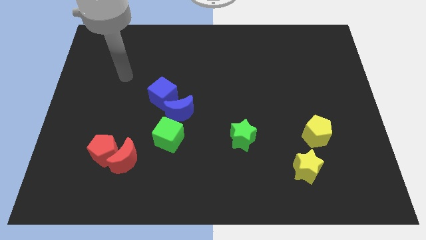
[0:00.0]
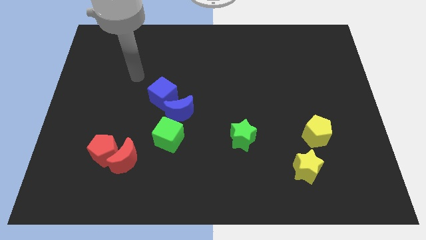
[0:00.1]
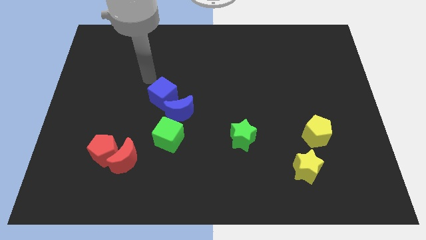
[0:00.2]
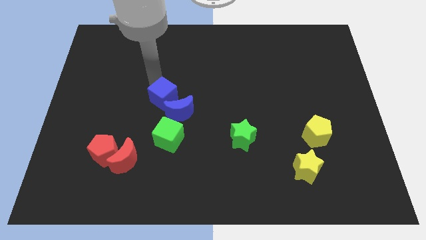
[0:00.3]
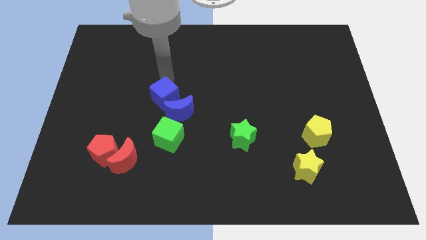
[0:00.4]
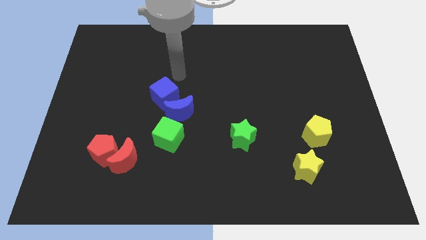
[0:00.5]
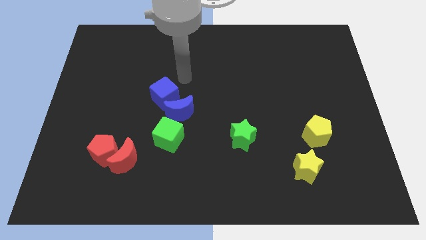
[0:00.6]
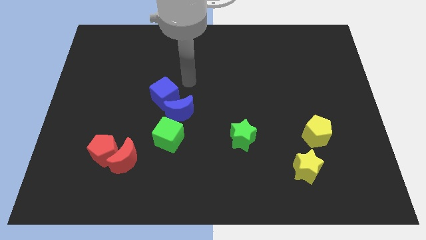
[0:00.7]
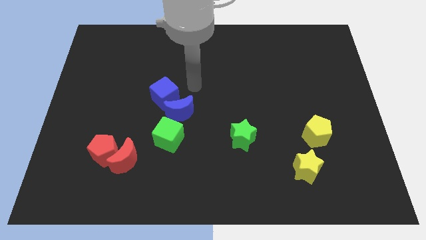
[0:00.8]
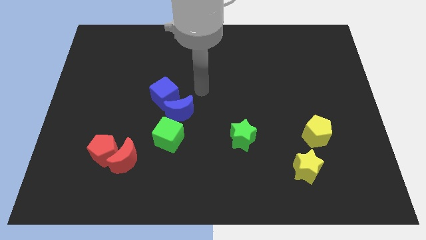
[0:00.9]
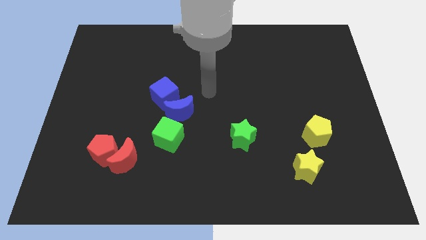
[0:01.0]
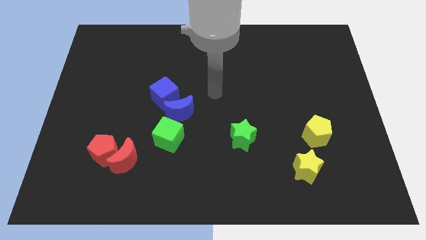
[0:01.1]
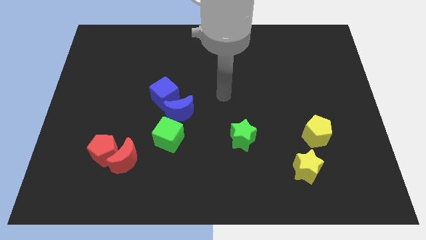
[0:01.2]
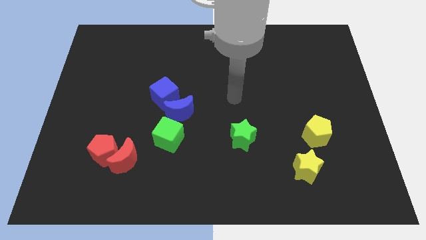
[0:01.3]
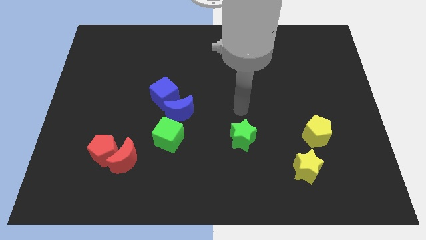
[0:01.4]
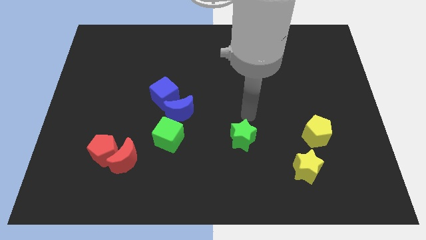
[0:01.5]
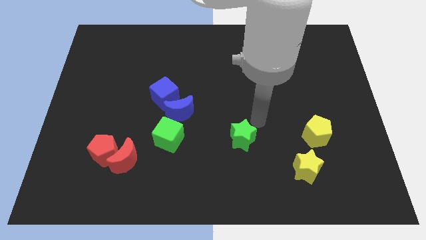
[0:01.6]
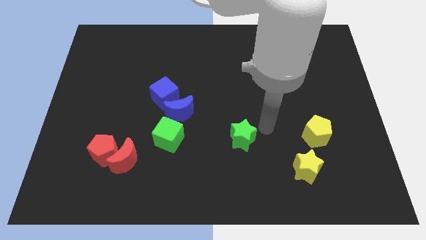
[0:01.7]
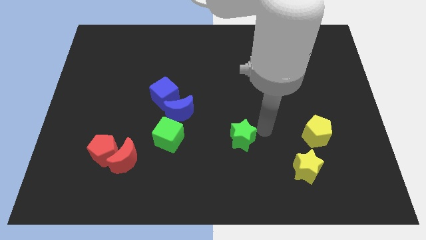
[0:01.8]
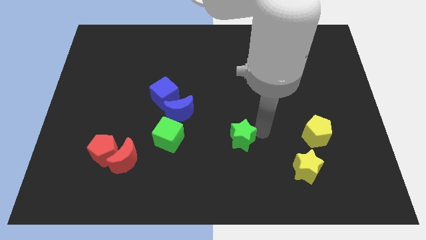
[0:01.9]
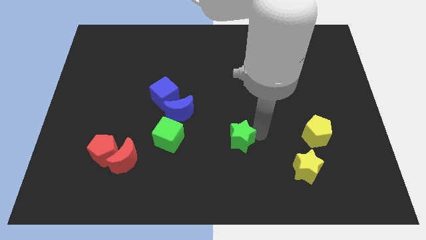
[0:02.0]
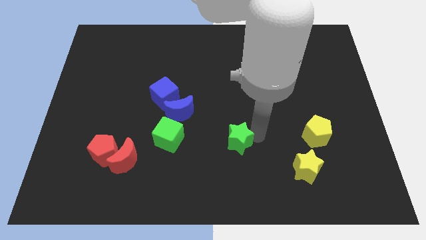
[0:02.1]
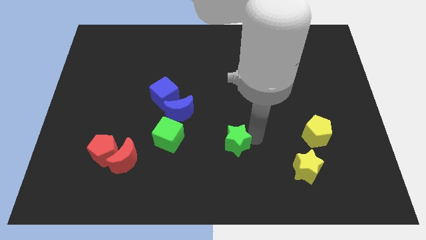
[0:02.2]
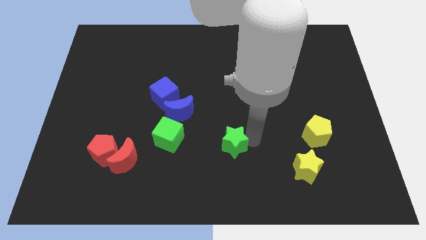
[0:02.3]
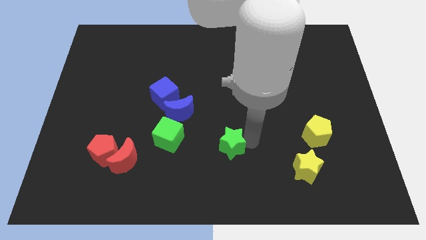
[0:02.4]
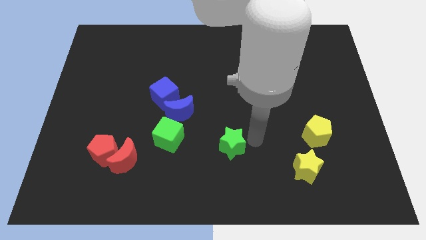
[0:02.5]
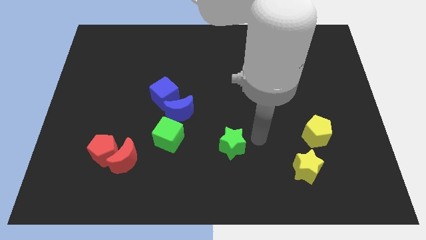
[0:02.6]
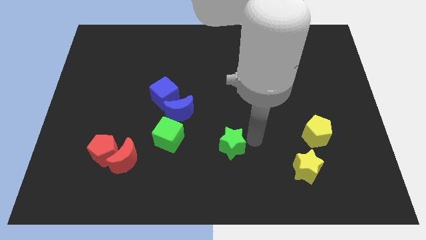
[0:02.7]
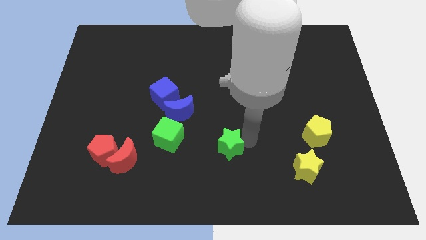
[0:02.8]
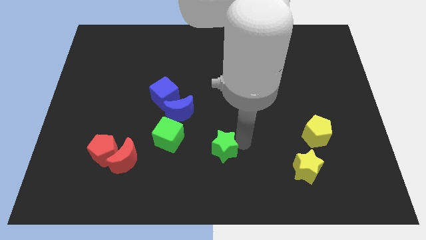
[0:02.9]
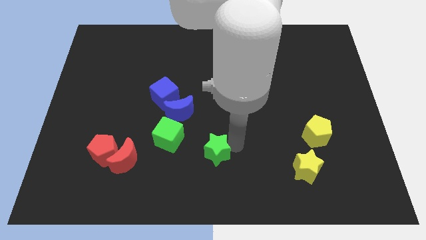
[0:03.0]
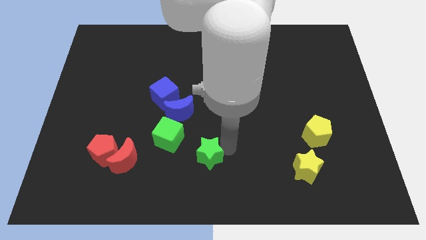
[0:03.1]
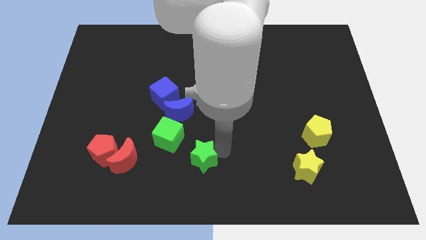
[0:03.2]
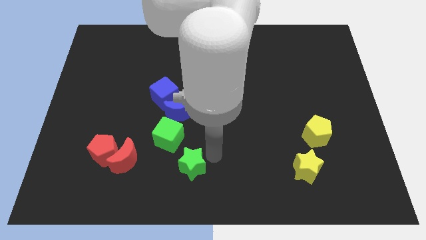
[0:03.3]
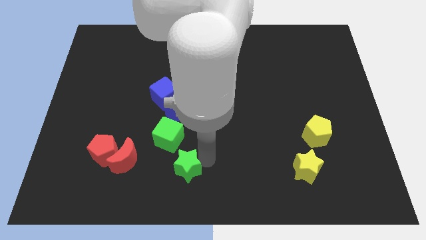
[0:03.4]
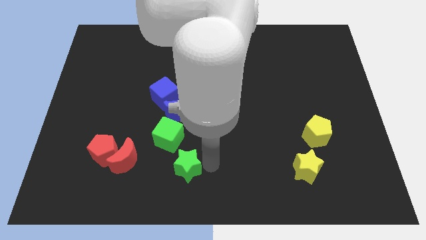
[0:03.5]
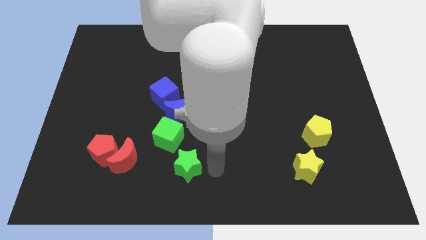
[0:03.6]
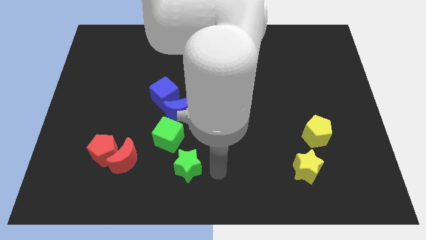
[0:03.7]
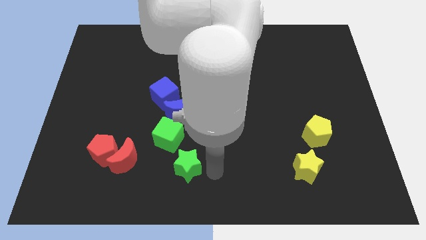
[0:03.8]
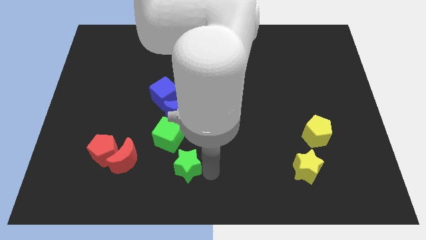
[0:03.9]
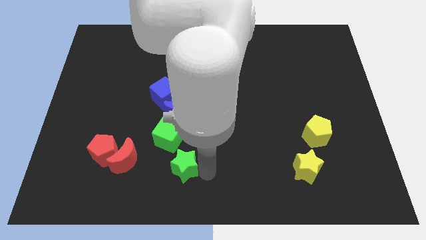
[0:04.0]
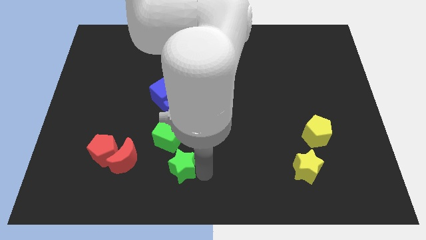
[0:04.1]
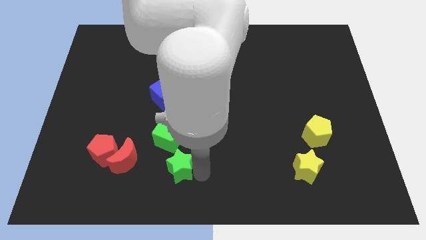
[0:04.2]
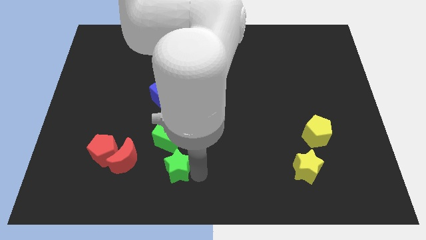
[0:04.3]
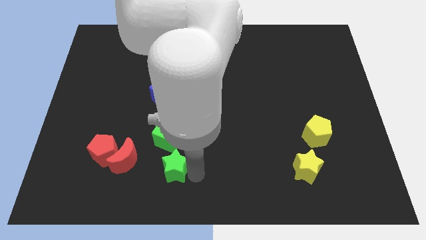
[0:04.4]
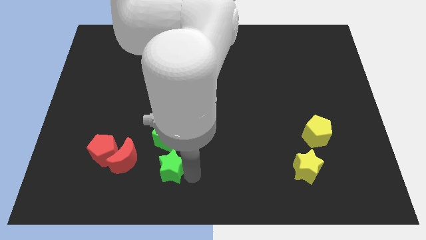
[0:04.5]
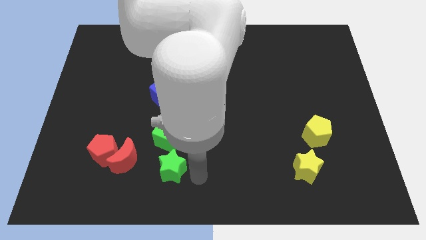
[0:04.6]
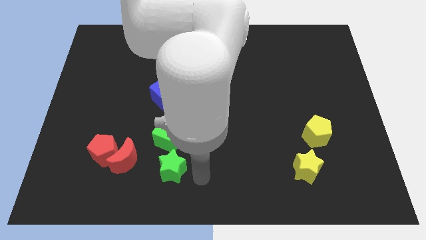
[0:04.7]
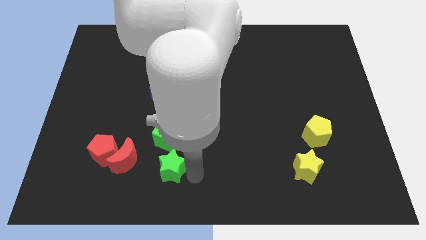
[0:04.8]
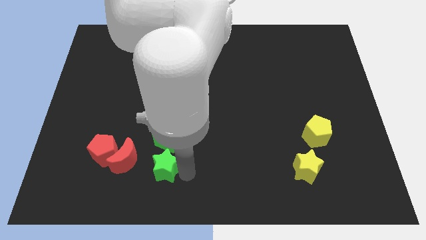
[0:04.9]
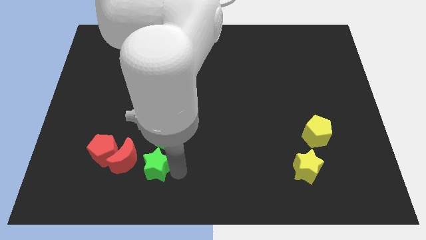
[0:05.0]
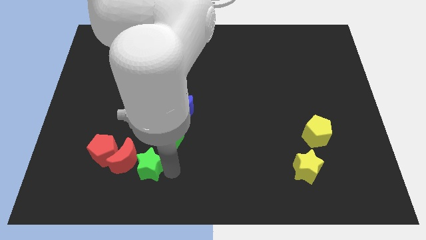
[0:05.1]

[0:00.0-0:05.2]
push the green star towards the red moon

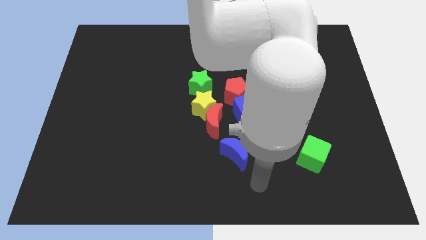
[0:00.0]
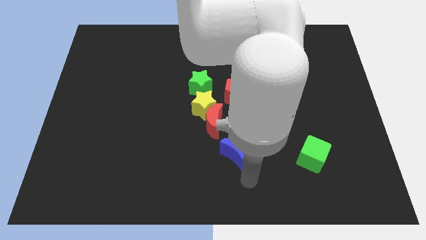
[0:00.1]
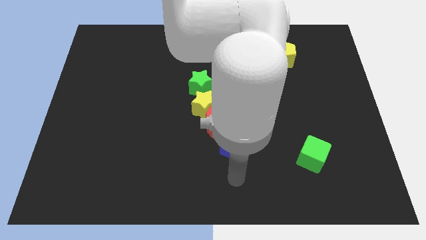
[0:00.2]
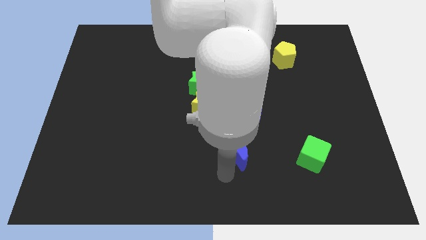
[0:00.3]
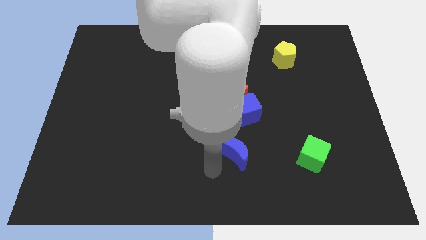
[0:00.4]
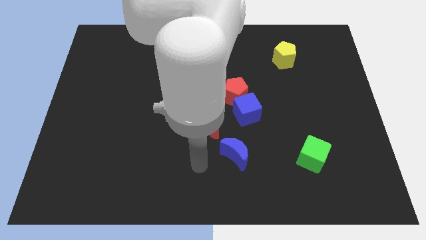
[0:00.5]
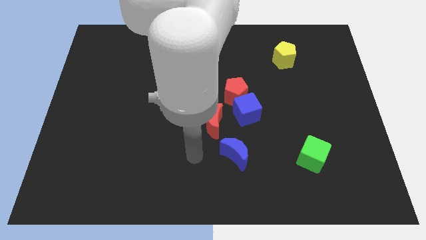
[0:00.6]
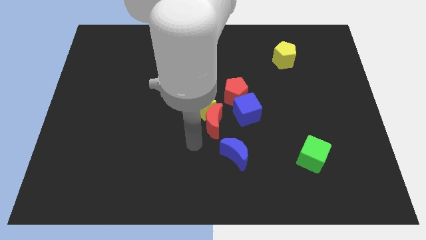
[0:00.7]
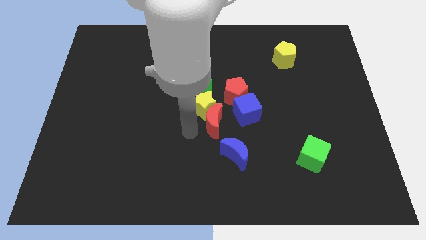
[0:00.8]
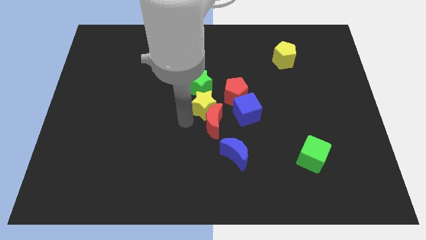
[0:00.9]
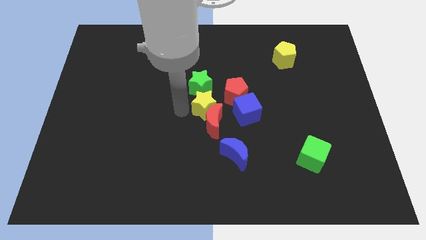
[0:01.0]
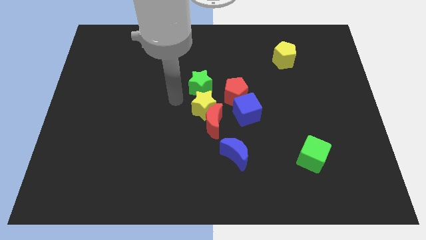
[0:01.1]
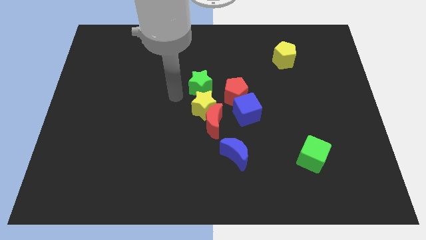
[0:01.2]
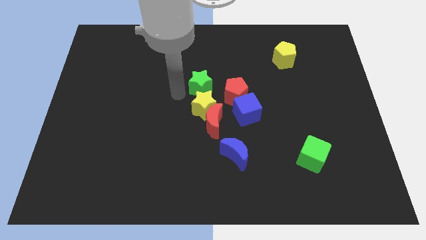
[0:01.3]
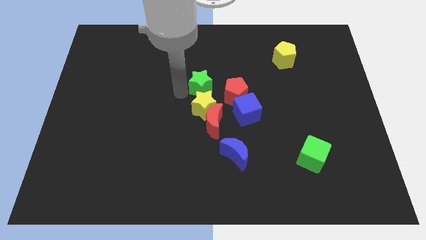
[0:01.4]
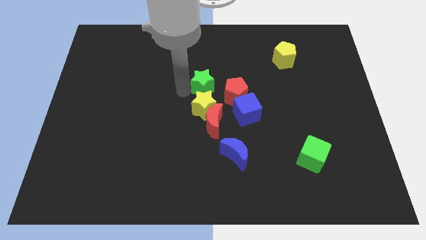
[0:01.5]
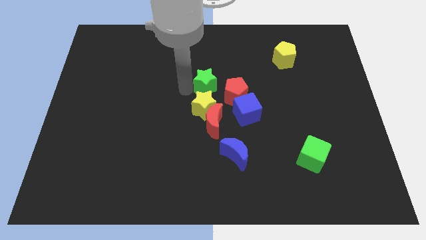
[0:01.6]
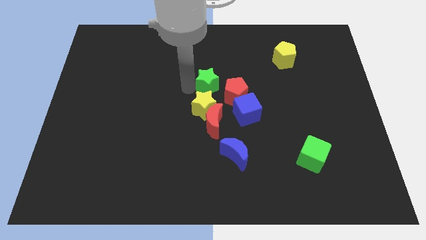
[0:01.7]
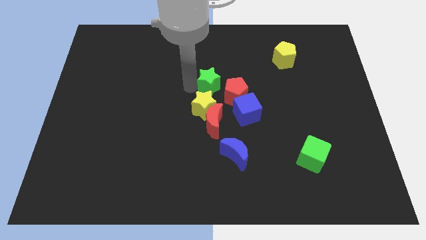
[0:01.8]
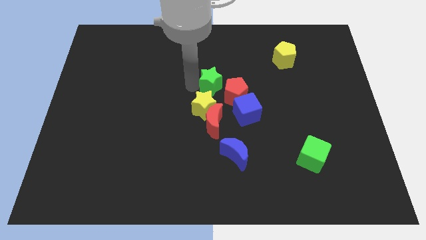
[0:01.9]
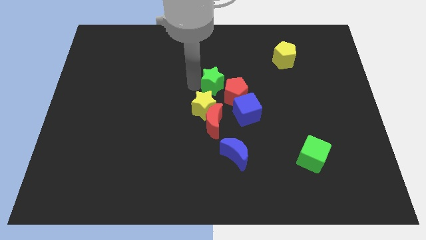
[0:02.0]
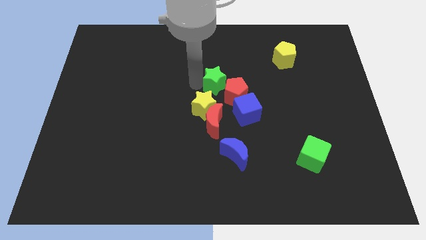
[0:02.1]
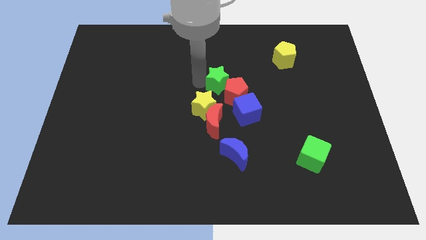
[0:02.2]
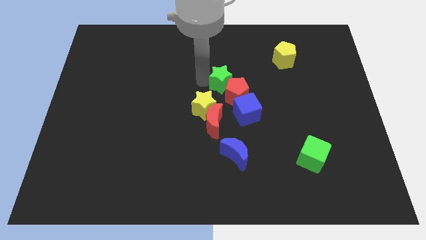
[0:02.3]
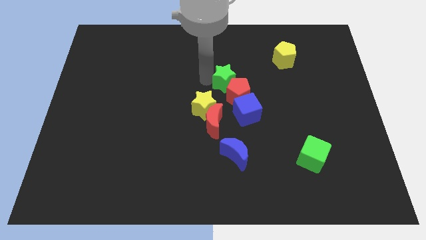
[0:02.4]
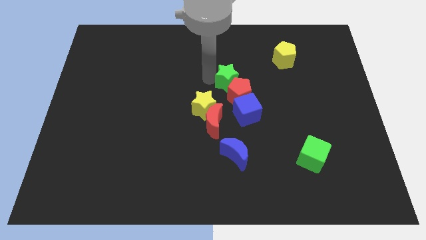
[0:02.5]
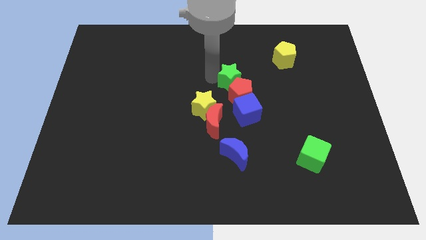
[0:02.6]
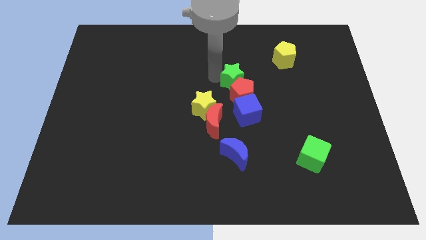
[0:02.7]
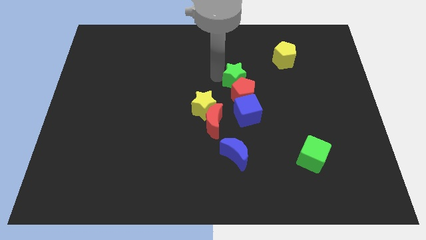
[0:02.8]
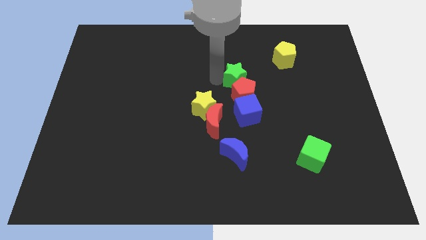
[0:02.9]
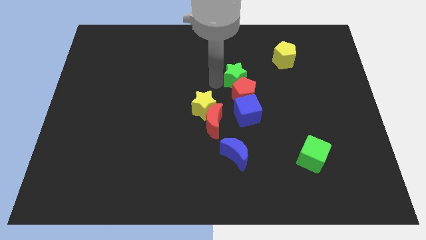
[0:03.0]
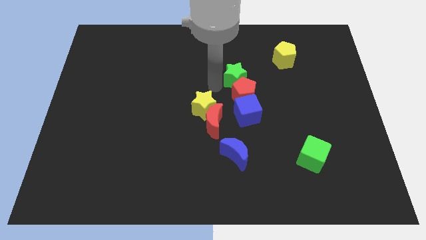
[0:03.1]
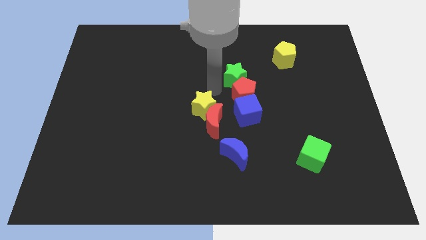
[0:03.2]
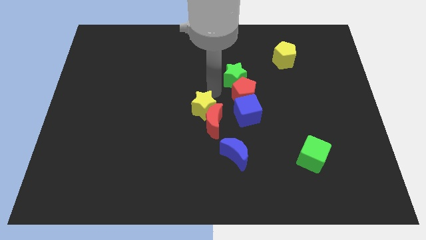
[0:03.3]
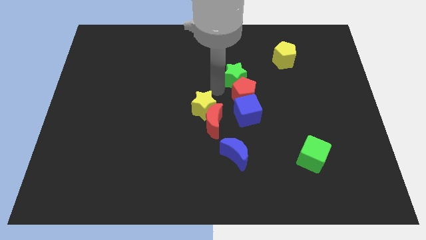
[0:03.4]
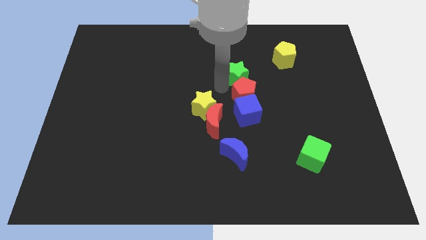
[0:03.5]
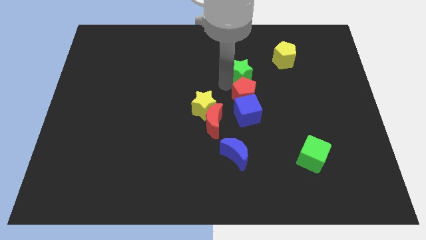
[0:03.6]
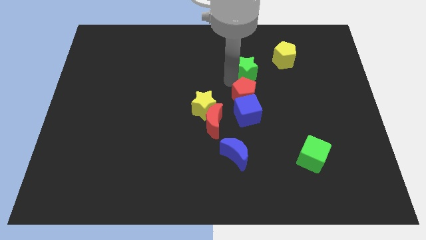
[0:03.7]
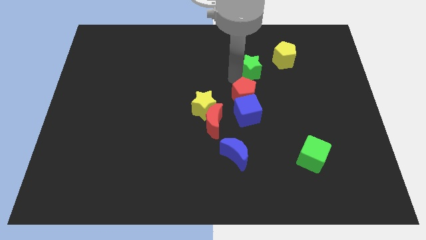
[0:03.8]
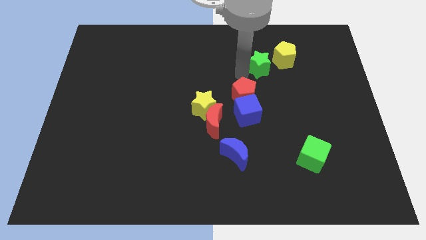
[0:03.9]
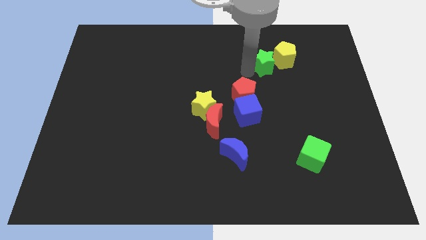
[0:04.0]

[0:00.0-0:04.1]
push the green star next to the yellow pentagon
